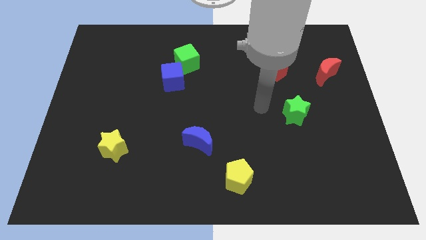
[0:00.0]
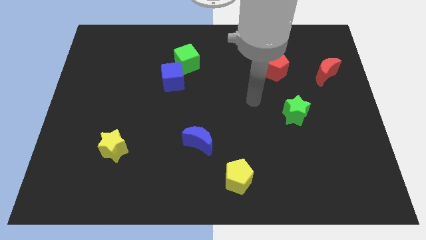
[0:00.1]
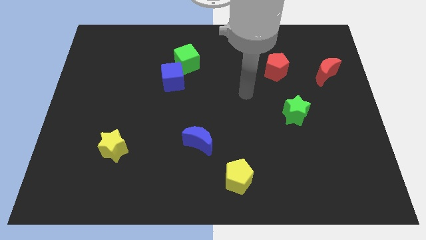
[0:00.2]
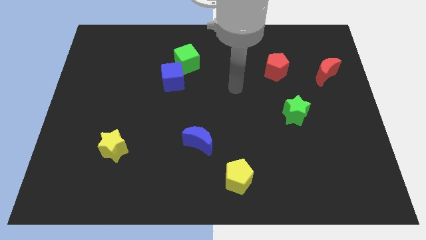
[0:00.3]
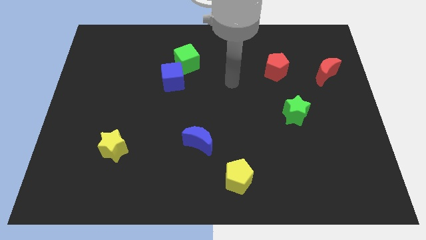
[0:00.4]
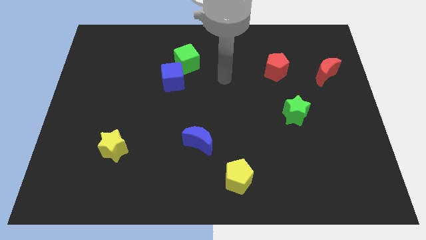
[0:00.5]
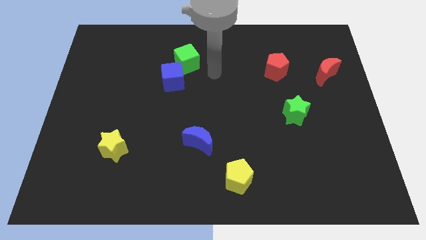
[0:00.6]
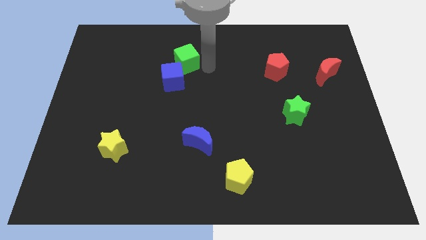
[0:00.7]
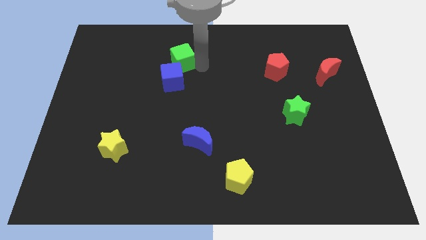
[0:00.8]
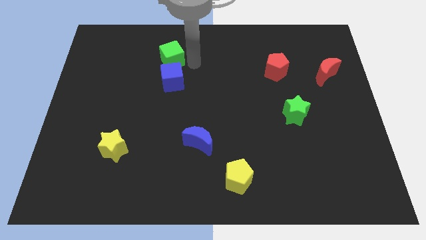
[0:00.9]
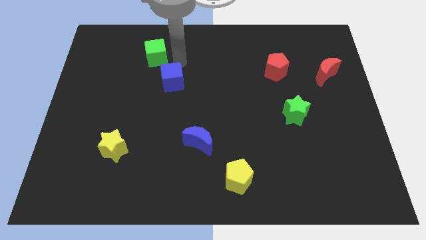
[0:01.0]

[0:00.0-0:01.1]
move the blue cube away from the green cube

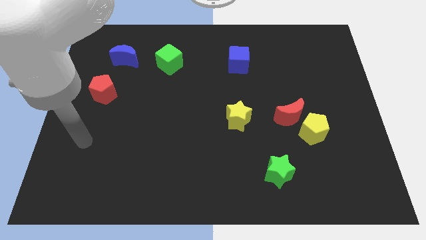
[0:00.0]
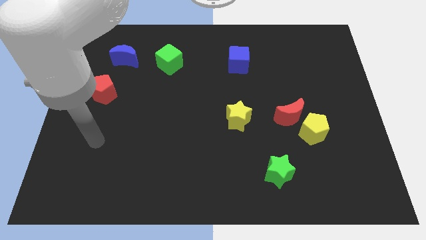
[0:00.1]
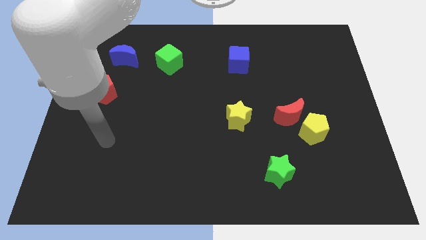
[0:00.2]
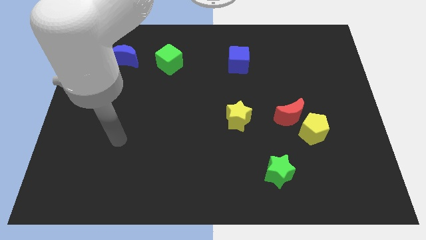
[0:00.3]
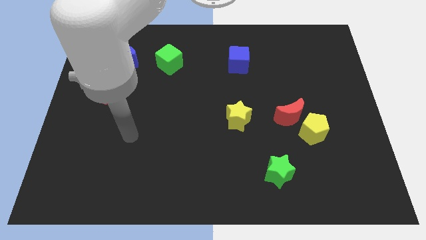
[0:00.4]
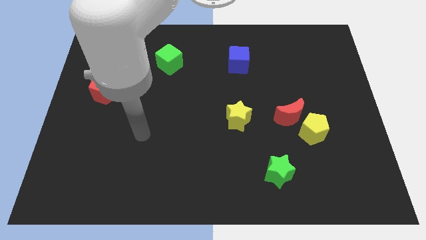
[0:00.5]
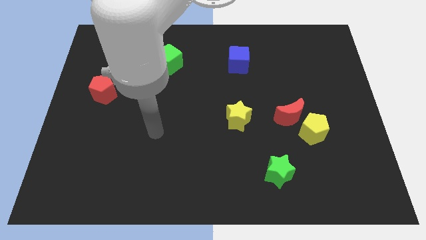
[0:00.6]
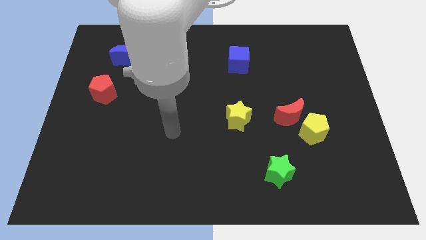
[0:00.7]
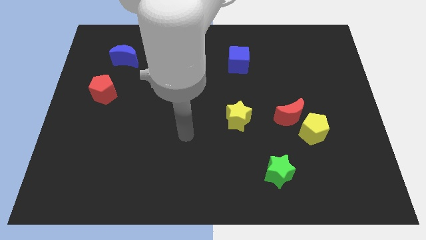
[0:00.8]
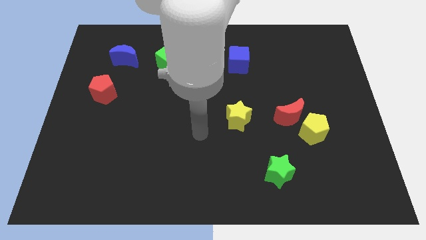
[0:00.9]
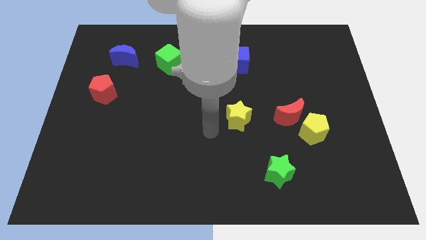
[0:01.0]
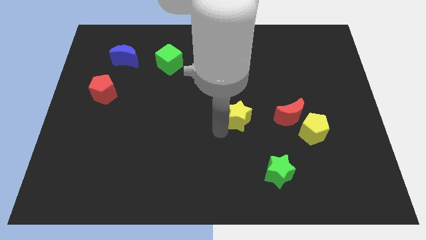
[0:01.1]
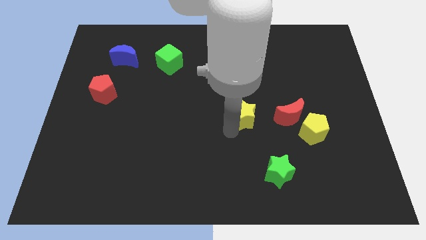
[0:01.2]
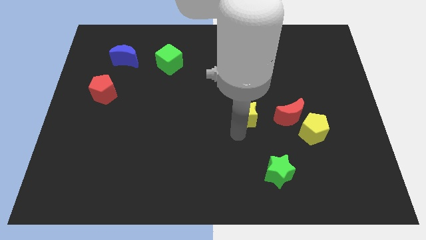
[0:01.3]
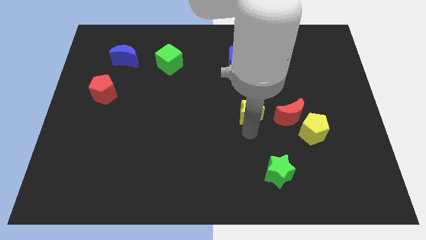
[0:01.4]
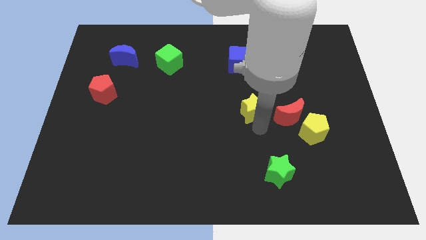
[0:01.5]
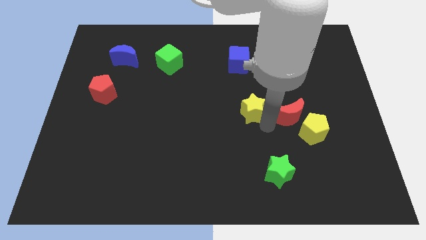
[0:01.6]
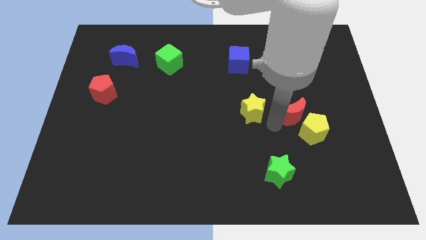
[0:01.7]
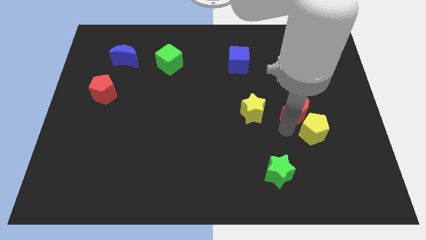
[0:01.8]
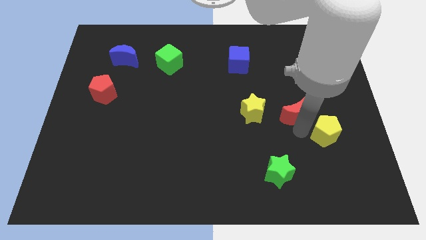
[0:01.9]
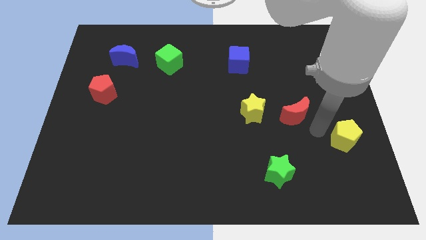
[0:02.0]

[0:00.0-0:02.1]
move the red moon away from the yellow pentagon

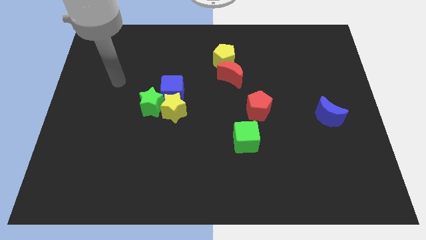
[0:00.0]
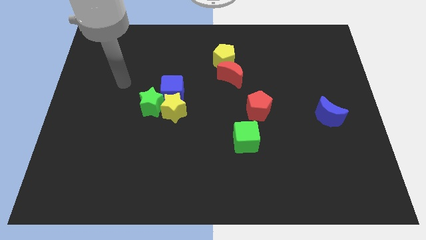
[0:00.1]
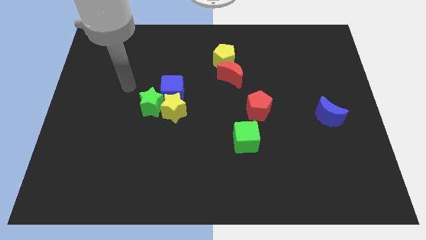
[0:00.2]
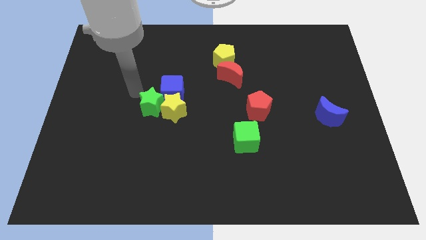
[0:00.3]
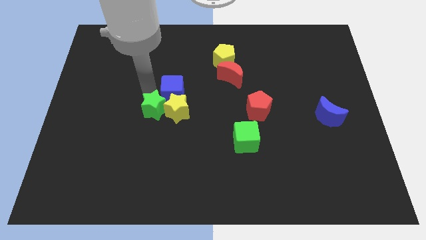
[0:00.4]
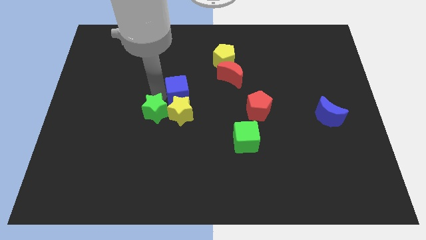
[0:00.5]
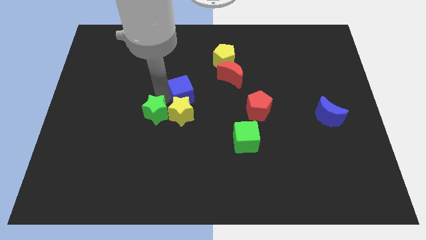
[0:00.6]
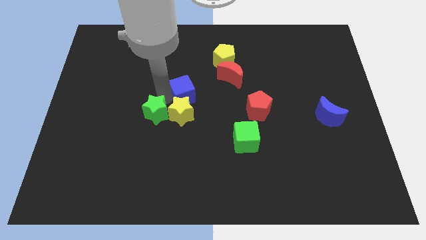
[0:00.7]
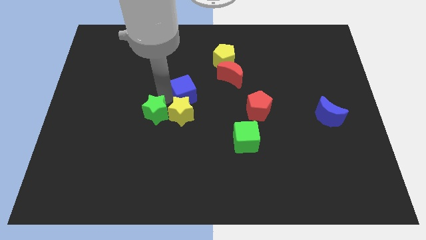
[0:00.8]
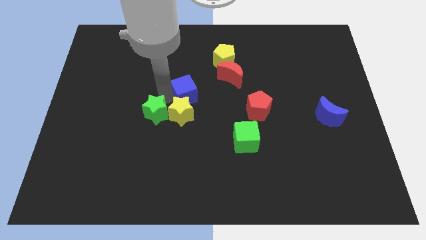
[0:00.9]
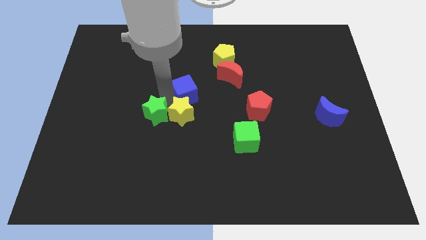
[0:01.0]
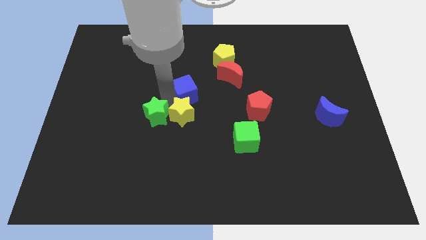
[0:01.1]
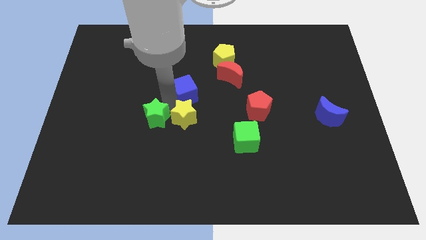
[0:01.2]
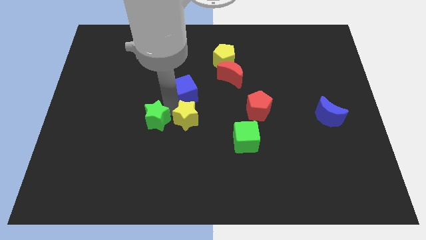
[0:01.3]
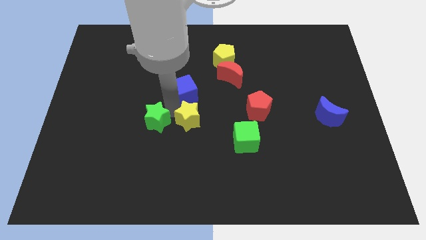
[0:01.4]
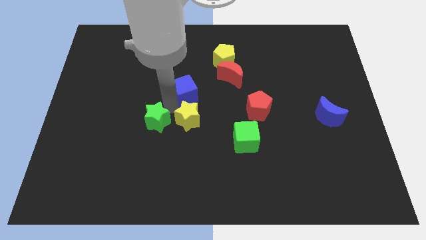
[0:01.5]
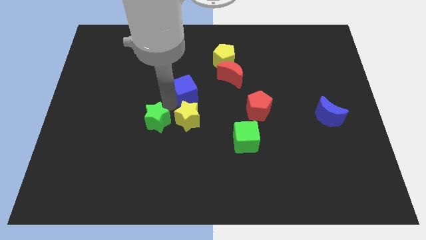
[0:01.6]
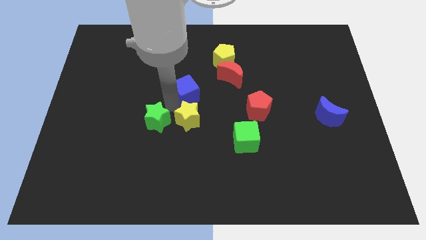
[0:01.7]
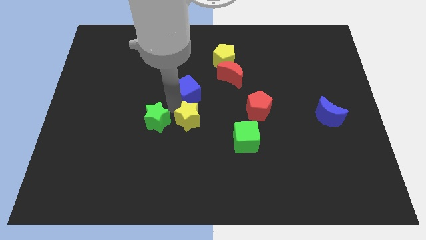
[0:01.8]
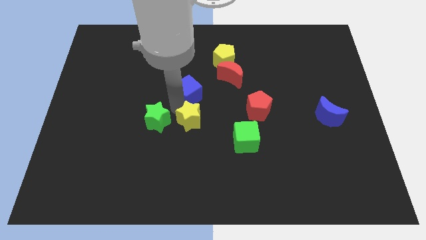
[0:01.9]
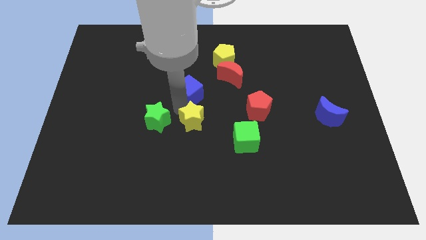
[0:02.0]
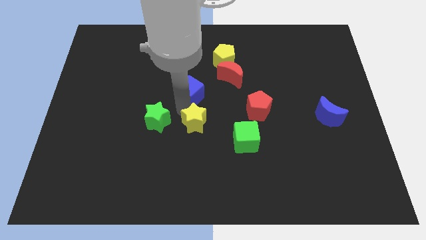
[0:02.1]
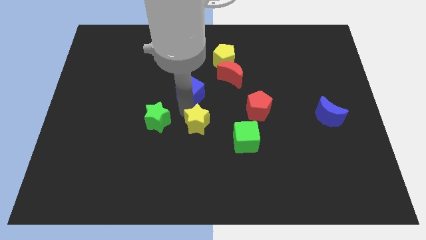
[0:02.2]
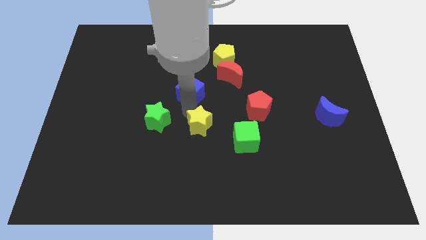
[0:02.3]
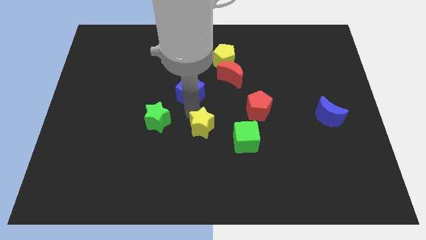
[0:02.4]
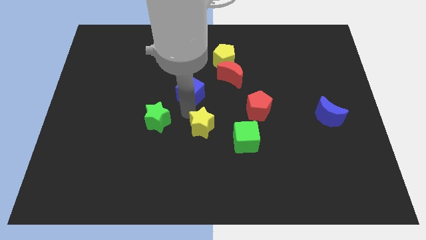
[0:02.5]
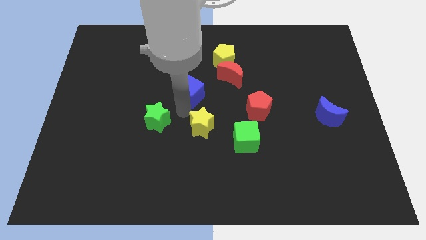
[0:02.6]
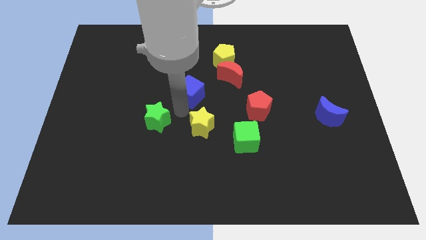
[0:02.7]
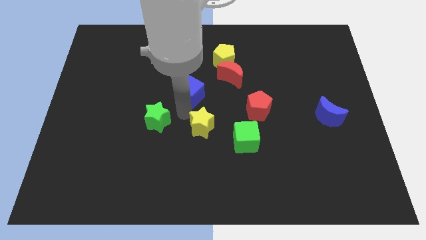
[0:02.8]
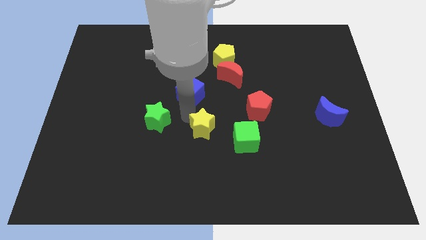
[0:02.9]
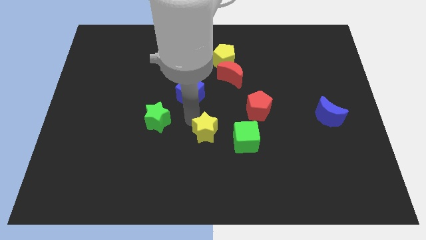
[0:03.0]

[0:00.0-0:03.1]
separate the yellow star from the blue cube and green star

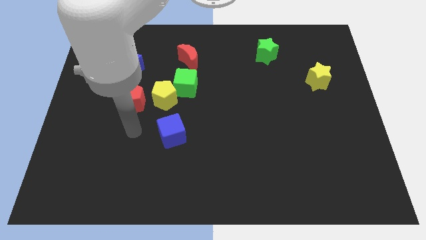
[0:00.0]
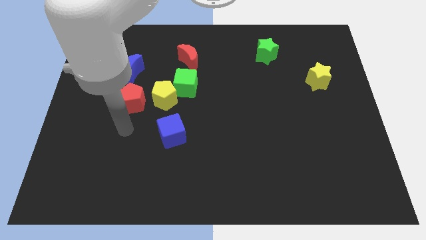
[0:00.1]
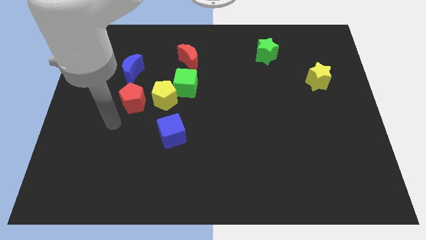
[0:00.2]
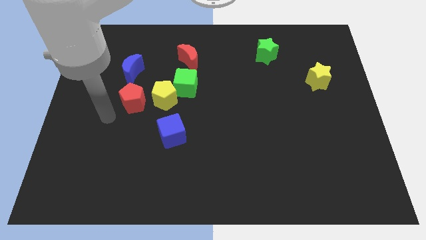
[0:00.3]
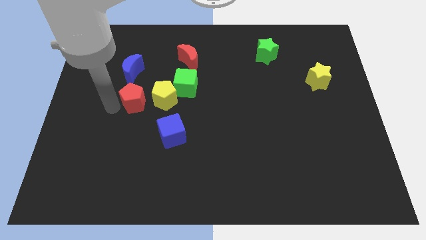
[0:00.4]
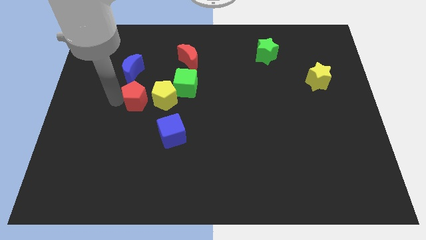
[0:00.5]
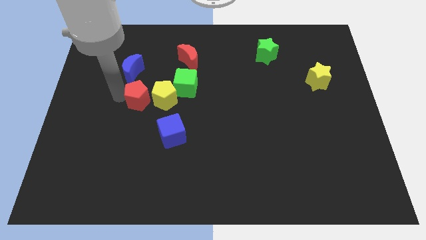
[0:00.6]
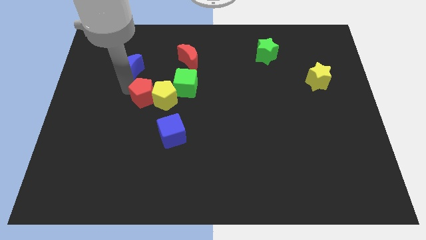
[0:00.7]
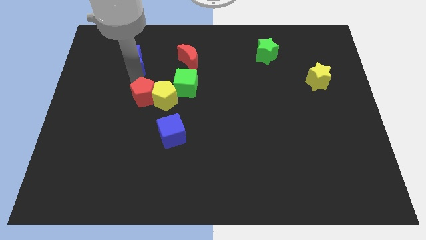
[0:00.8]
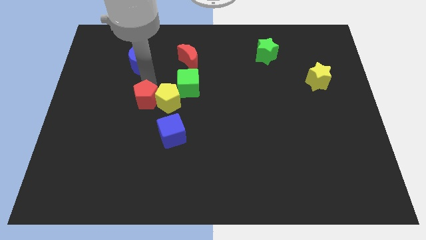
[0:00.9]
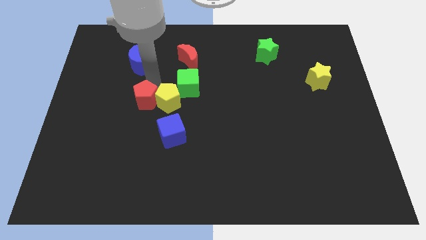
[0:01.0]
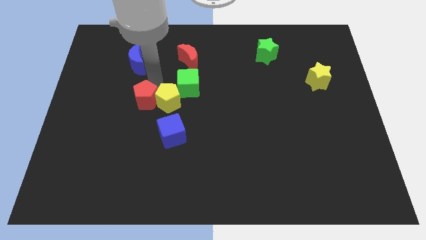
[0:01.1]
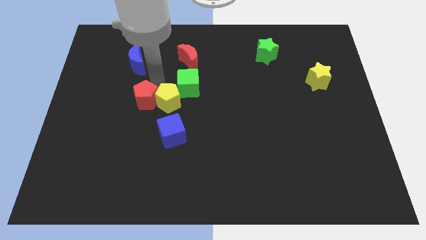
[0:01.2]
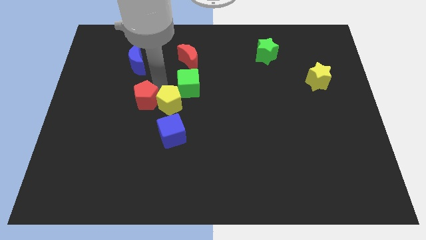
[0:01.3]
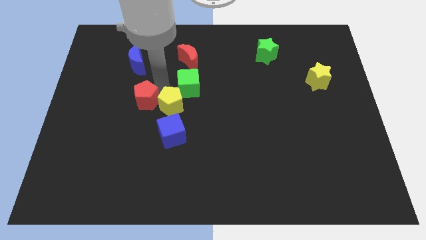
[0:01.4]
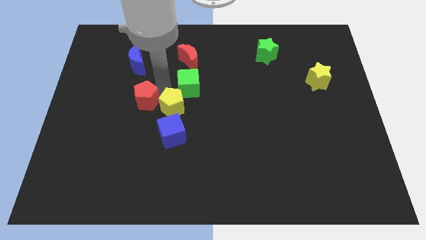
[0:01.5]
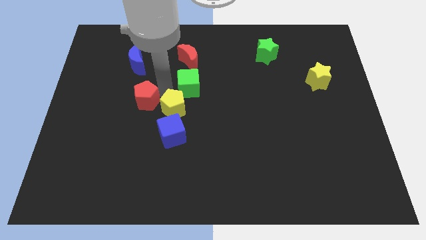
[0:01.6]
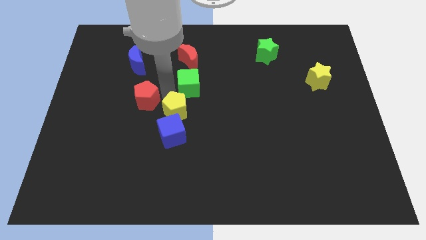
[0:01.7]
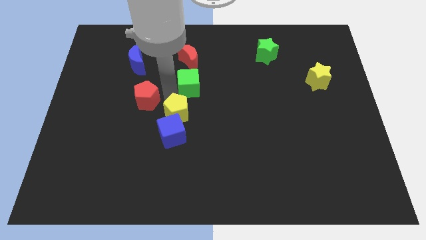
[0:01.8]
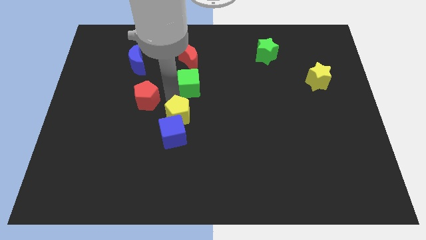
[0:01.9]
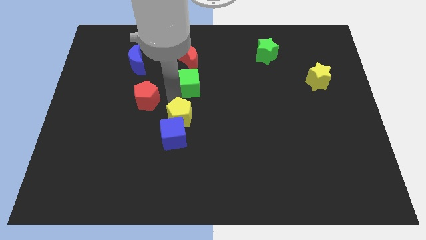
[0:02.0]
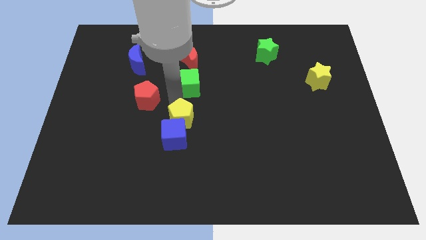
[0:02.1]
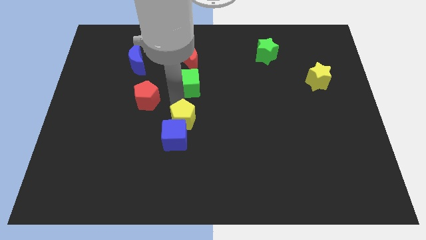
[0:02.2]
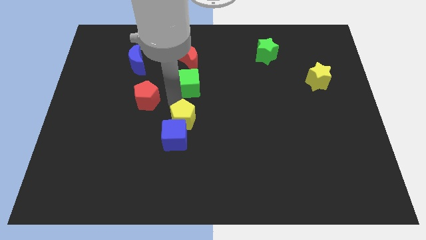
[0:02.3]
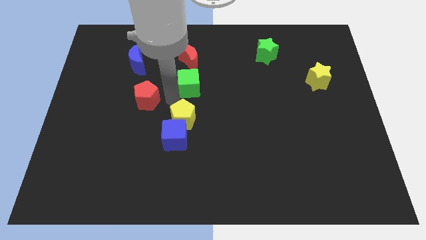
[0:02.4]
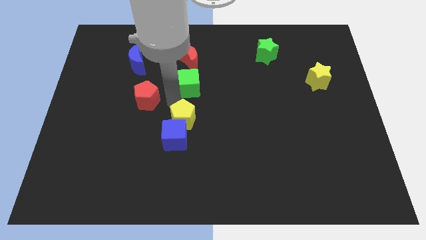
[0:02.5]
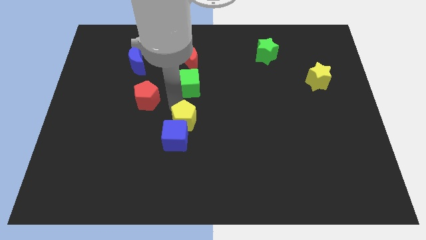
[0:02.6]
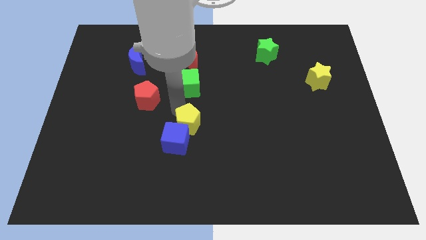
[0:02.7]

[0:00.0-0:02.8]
pull the yellow pentagon apart from the green cube and red pentagon

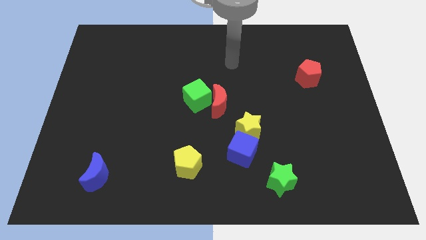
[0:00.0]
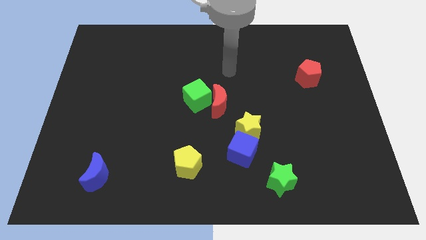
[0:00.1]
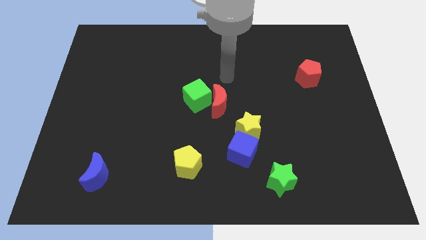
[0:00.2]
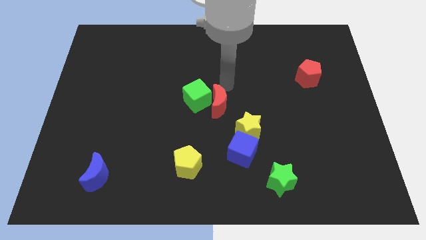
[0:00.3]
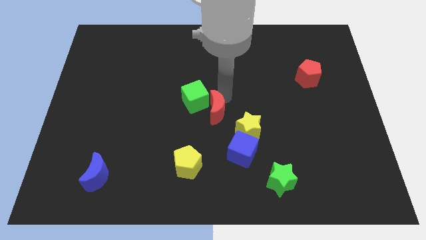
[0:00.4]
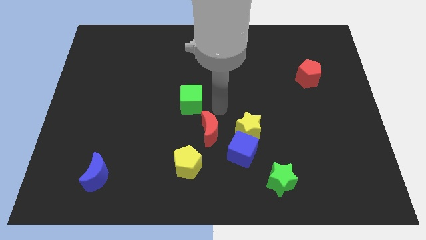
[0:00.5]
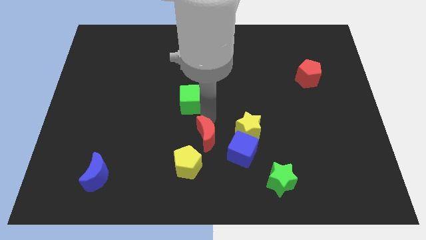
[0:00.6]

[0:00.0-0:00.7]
pull the green cube apart from the red moon
